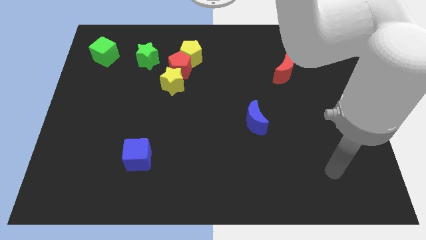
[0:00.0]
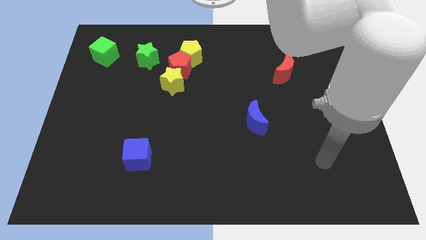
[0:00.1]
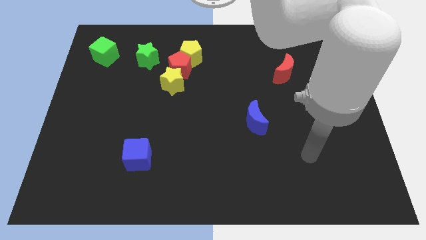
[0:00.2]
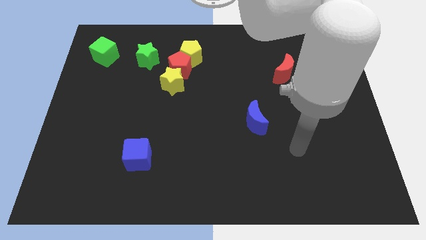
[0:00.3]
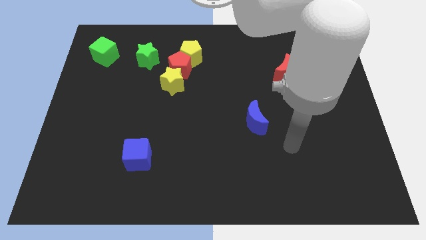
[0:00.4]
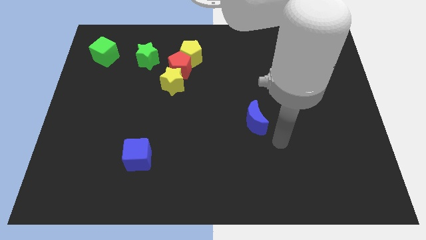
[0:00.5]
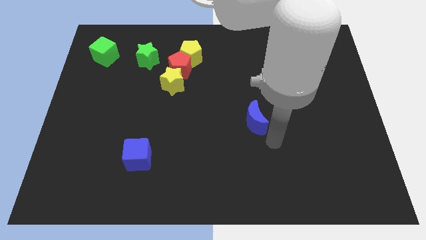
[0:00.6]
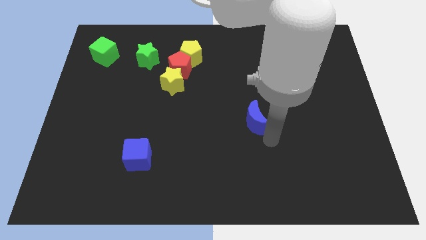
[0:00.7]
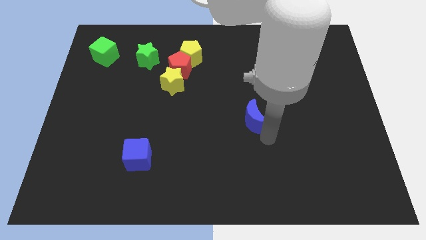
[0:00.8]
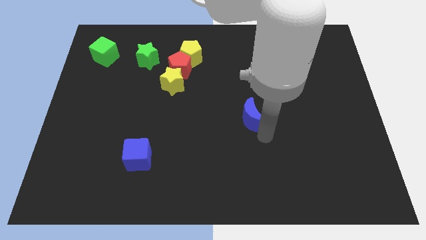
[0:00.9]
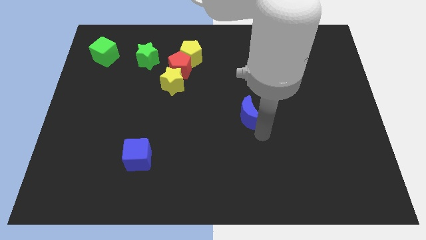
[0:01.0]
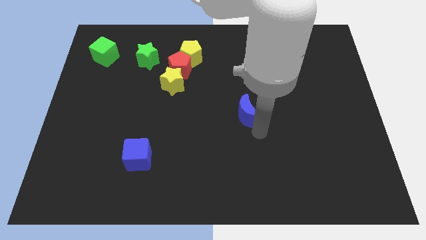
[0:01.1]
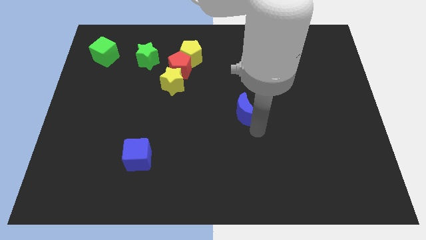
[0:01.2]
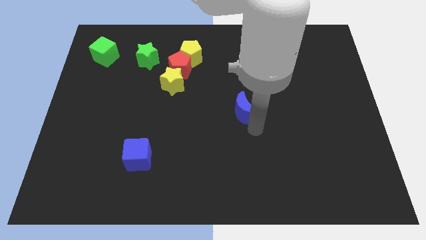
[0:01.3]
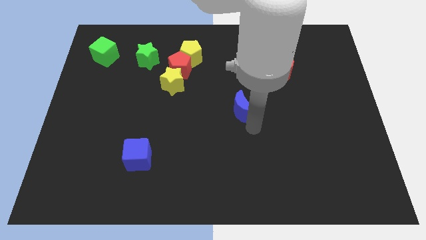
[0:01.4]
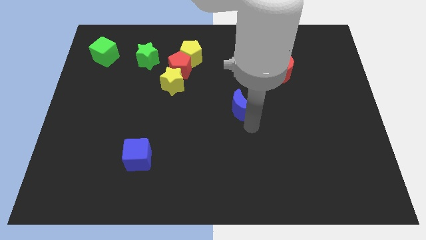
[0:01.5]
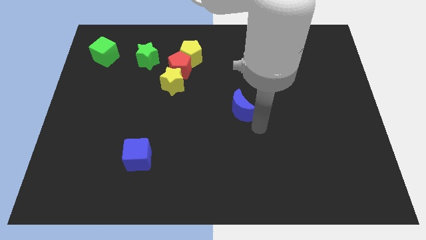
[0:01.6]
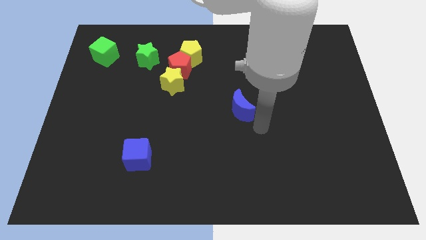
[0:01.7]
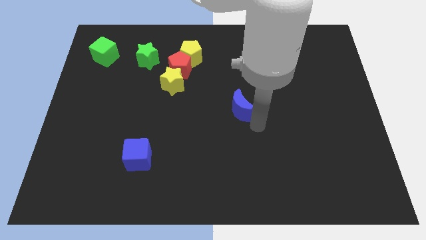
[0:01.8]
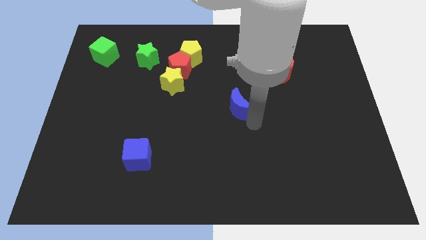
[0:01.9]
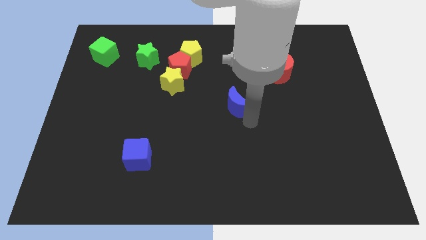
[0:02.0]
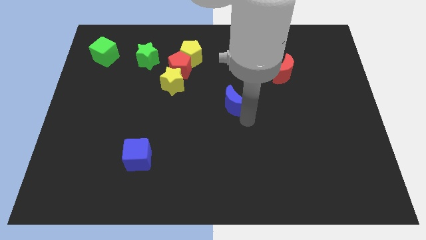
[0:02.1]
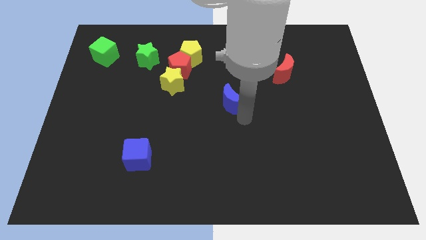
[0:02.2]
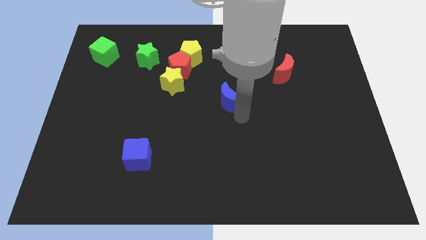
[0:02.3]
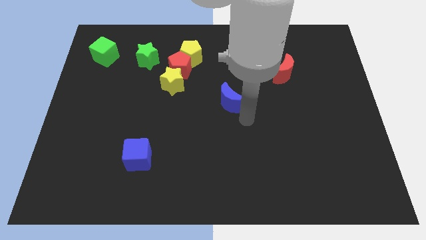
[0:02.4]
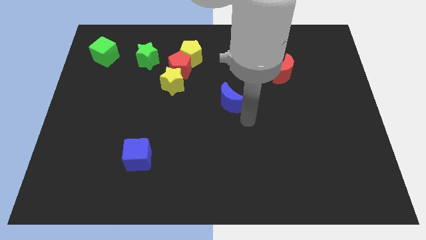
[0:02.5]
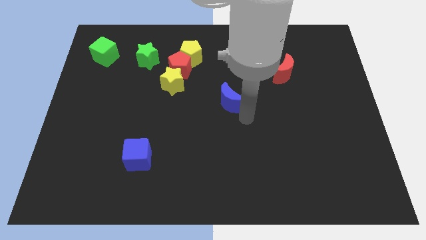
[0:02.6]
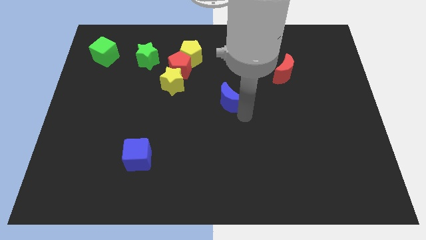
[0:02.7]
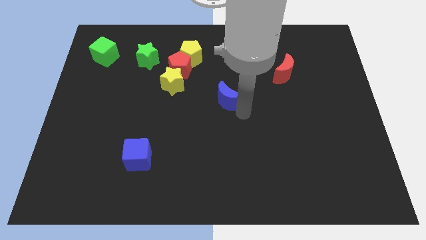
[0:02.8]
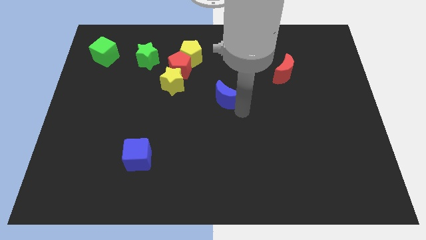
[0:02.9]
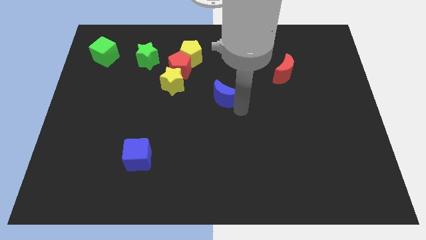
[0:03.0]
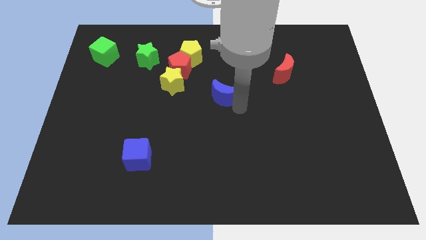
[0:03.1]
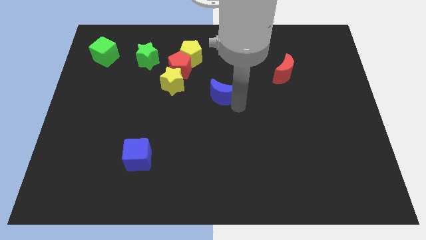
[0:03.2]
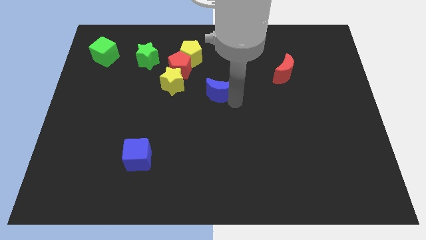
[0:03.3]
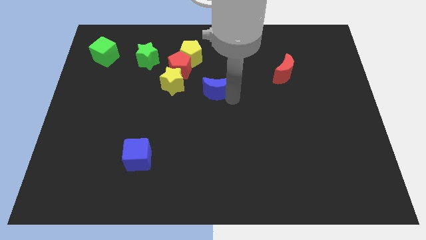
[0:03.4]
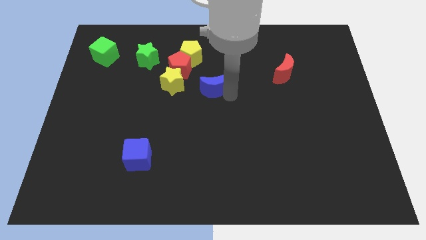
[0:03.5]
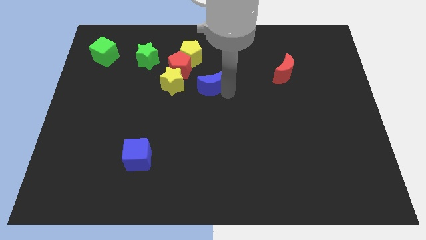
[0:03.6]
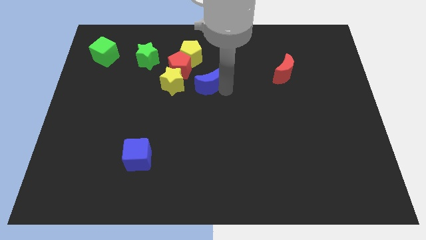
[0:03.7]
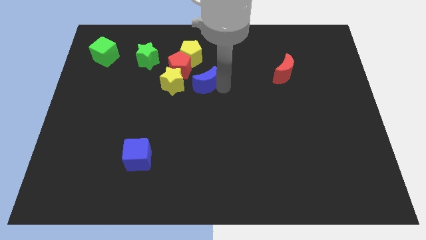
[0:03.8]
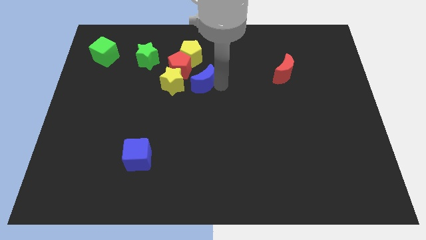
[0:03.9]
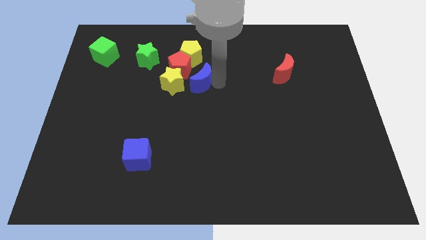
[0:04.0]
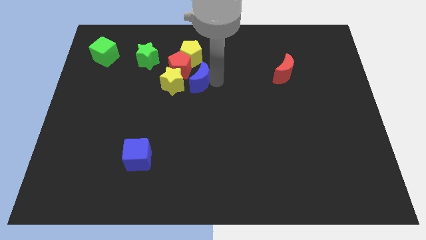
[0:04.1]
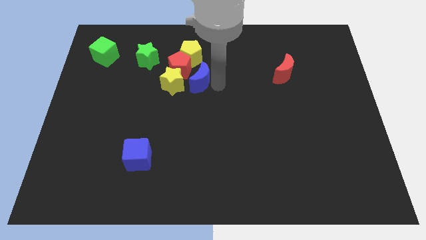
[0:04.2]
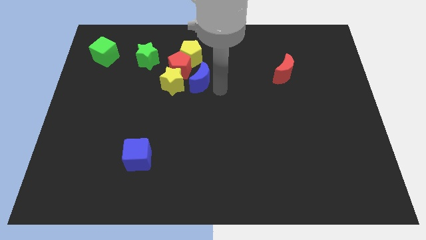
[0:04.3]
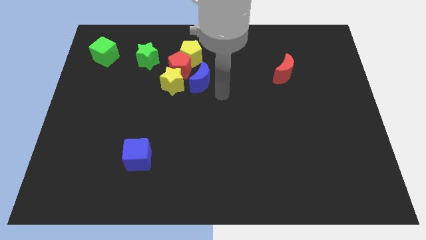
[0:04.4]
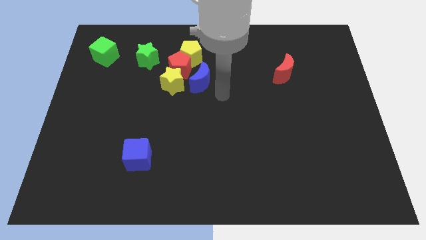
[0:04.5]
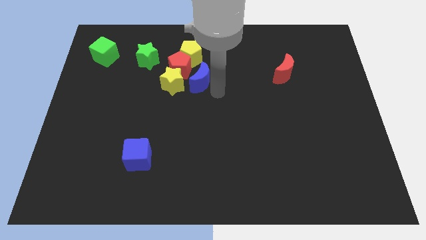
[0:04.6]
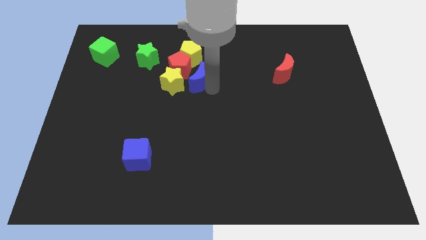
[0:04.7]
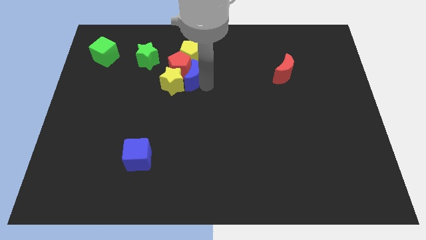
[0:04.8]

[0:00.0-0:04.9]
put the blue moon close to the red pentagon

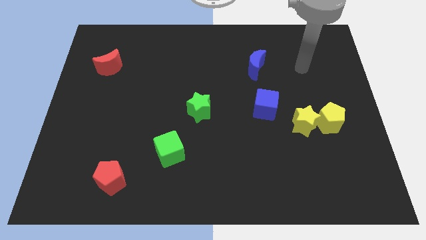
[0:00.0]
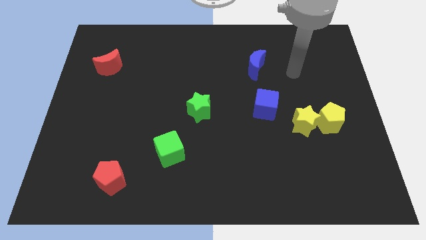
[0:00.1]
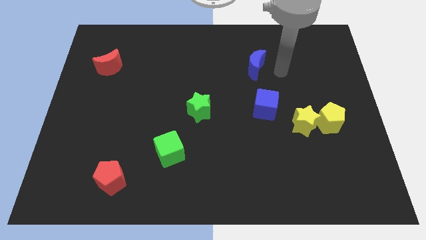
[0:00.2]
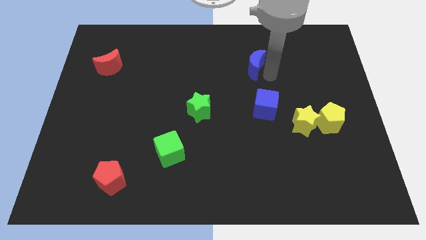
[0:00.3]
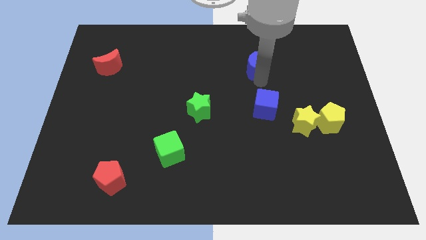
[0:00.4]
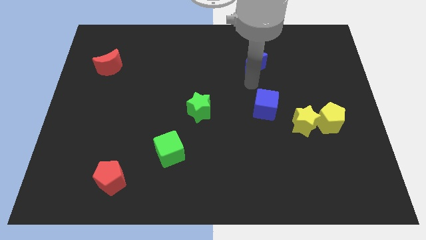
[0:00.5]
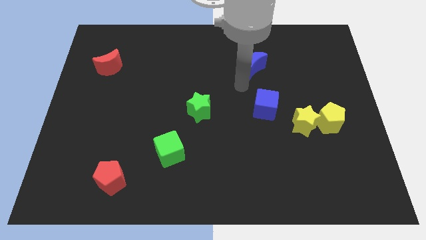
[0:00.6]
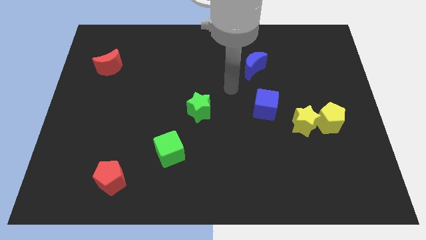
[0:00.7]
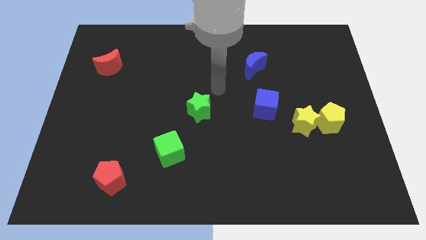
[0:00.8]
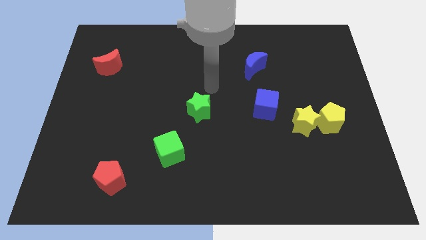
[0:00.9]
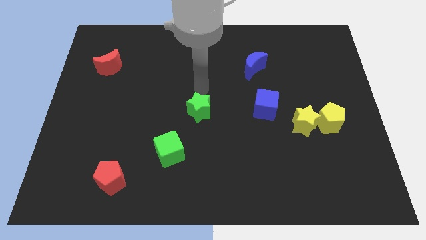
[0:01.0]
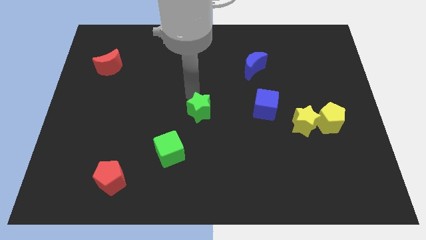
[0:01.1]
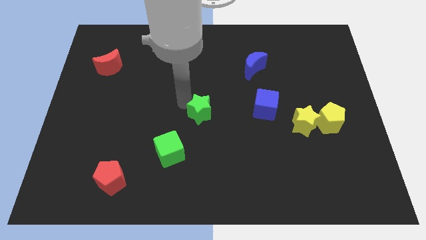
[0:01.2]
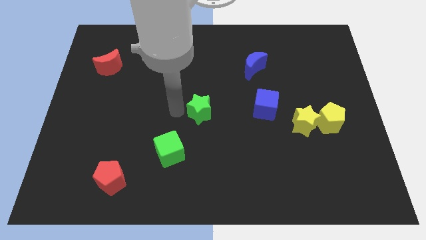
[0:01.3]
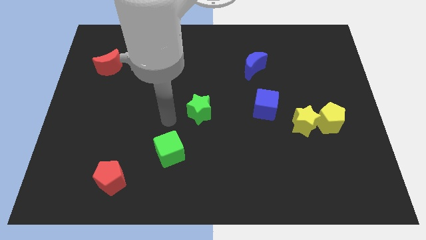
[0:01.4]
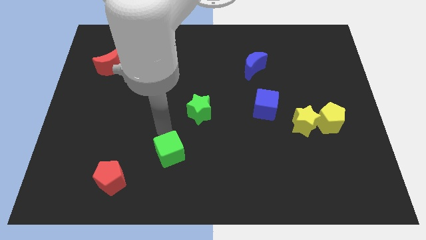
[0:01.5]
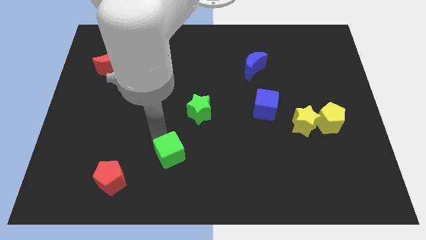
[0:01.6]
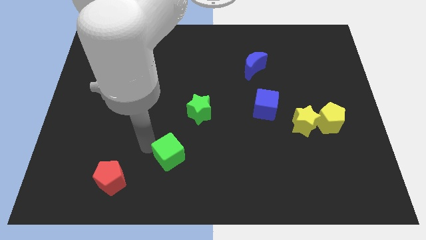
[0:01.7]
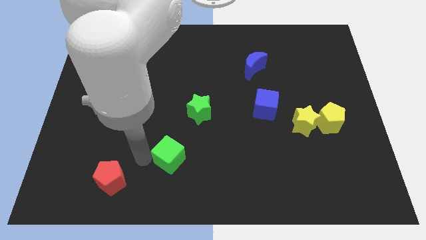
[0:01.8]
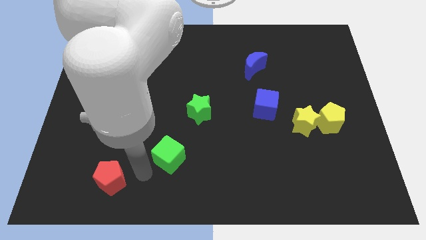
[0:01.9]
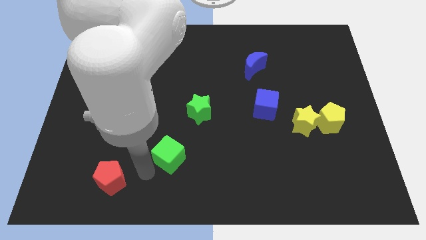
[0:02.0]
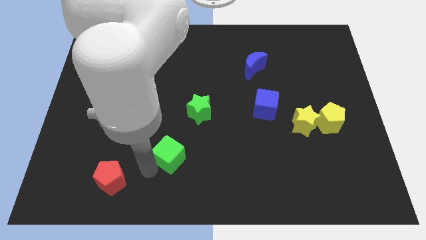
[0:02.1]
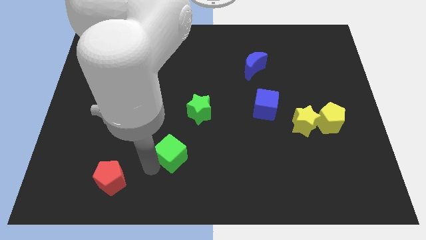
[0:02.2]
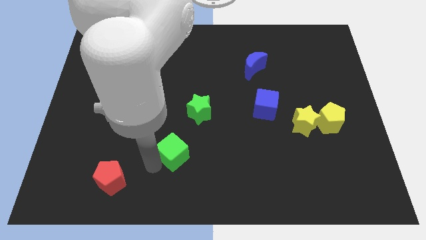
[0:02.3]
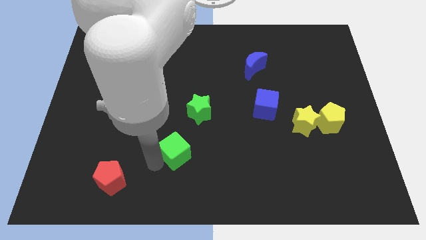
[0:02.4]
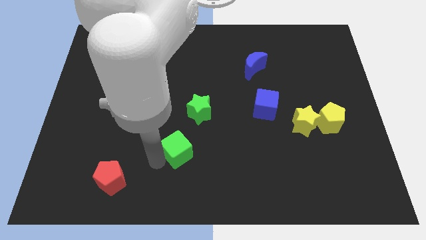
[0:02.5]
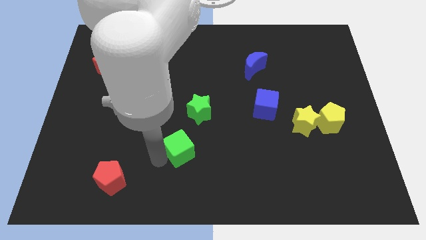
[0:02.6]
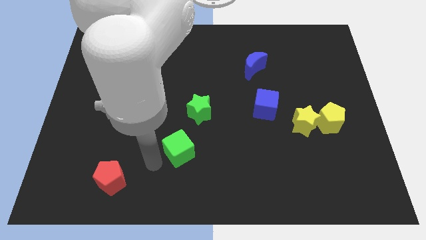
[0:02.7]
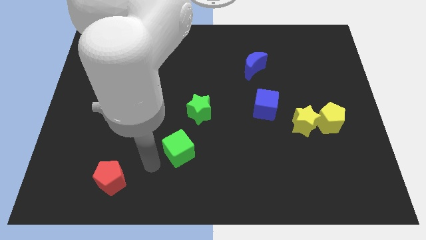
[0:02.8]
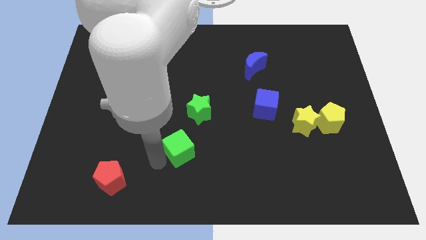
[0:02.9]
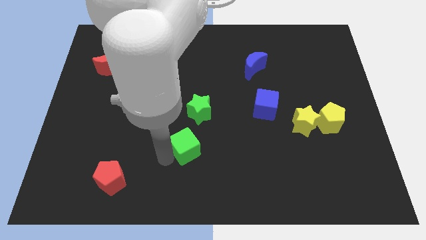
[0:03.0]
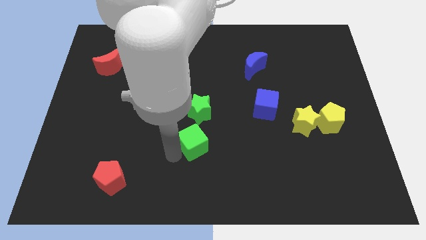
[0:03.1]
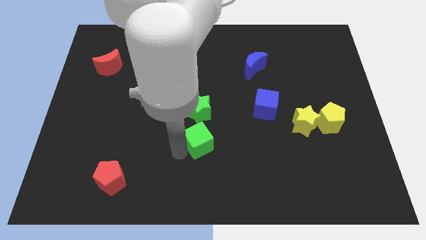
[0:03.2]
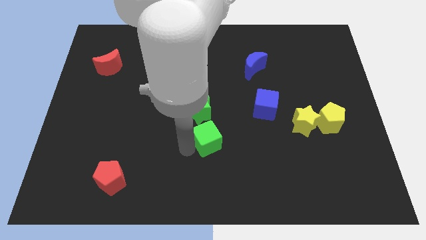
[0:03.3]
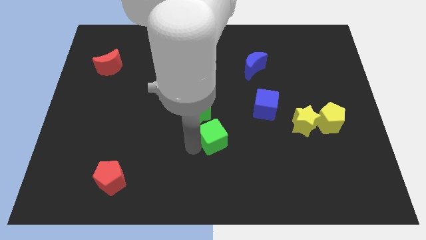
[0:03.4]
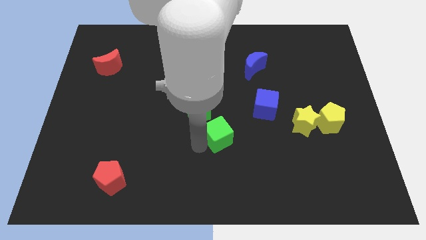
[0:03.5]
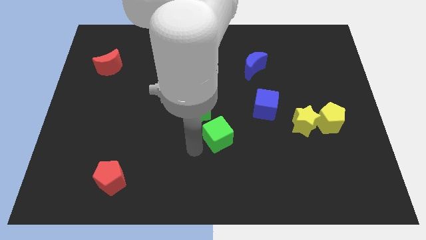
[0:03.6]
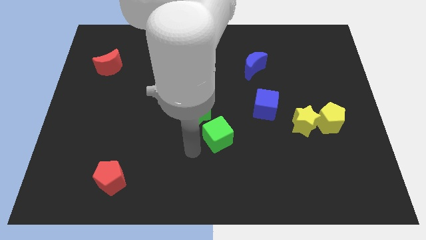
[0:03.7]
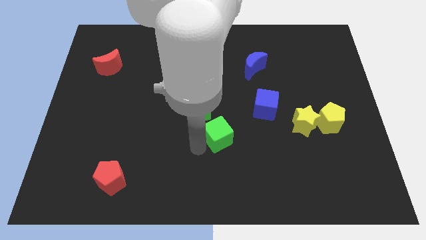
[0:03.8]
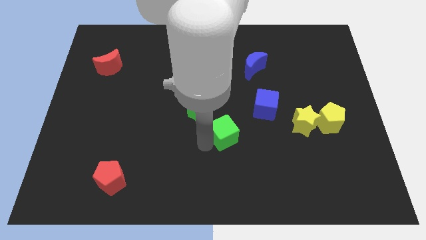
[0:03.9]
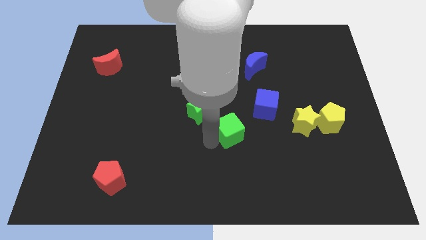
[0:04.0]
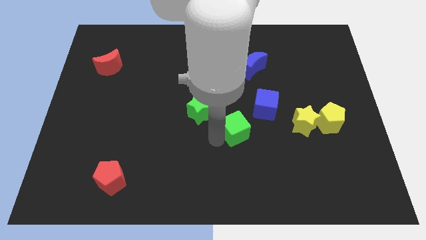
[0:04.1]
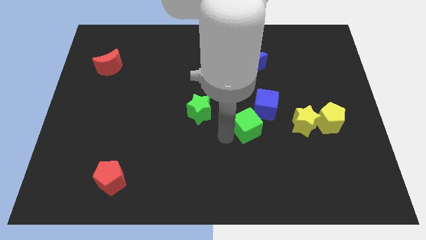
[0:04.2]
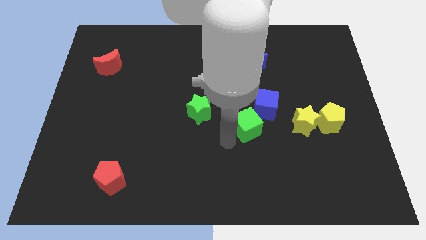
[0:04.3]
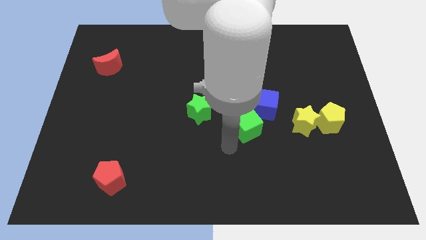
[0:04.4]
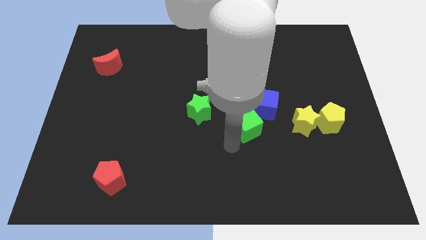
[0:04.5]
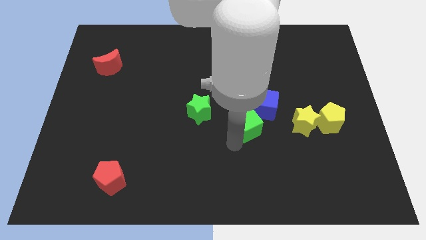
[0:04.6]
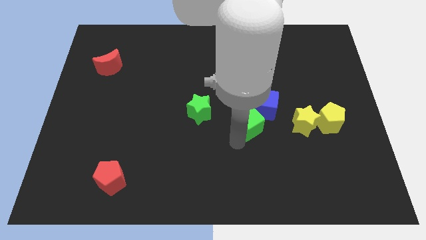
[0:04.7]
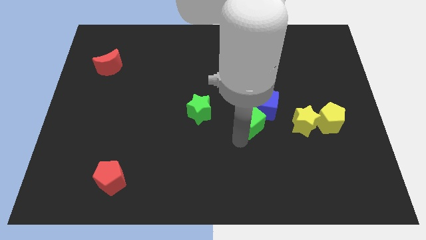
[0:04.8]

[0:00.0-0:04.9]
push the green cube close to the blue cube
